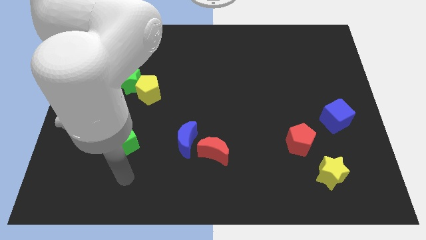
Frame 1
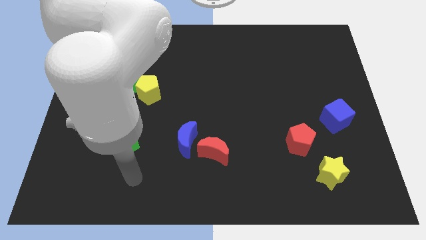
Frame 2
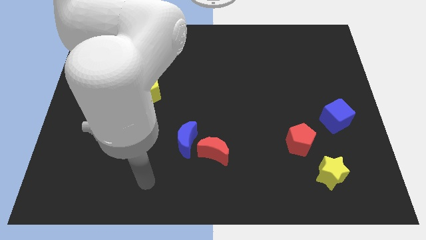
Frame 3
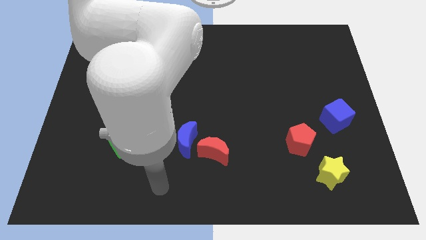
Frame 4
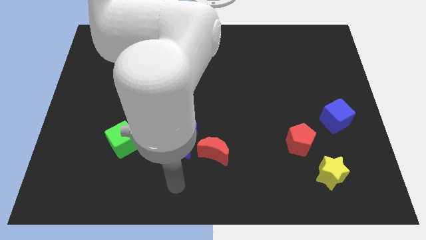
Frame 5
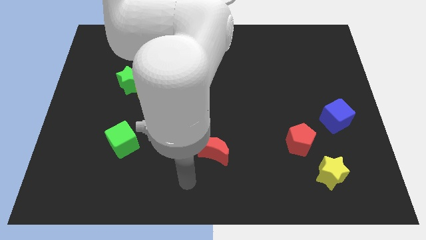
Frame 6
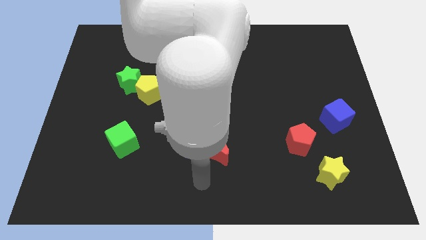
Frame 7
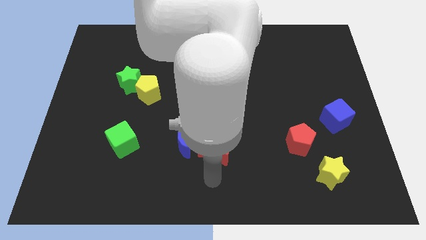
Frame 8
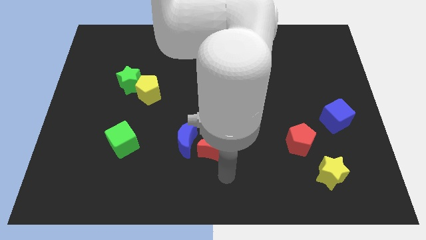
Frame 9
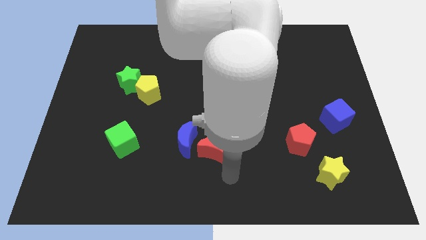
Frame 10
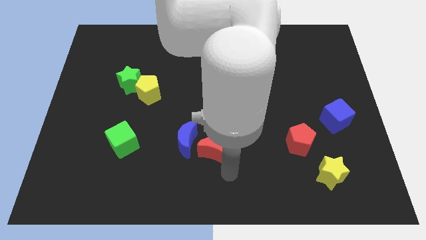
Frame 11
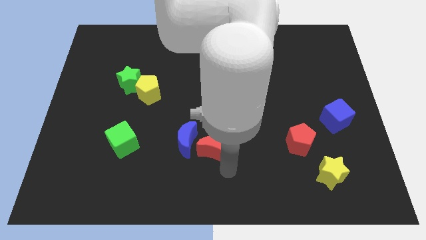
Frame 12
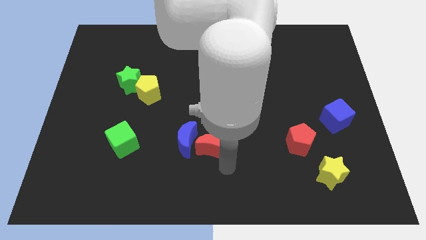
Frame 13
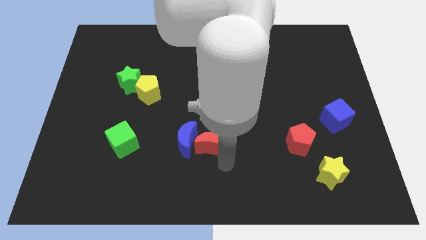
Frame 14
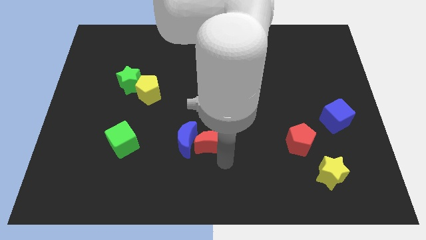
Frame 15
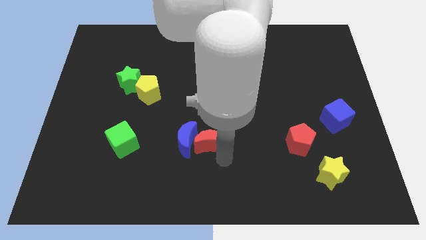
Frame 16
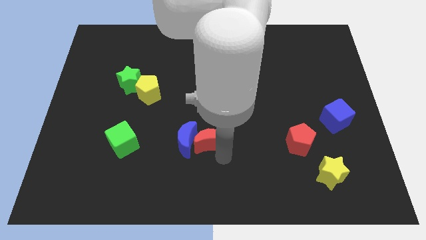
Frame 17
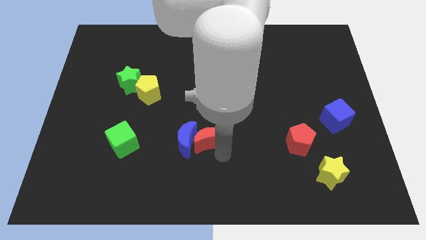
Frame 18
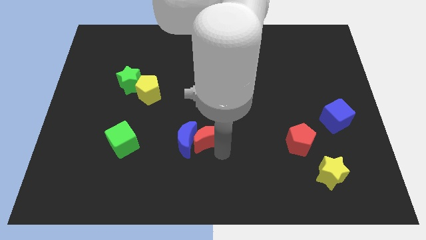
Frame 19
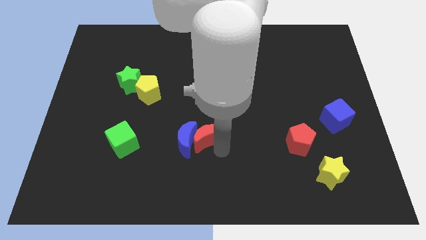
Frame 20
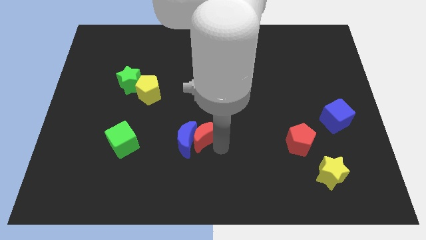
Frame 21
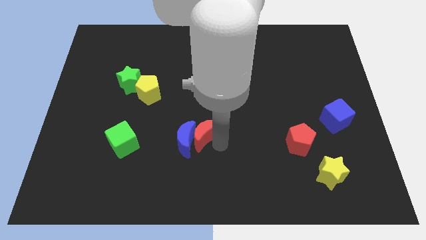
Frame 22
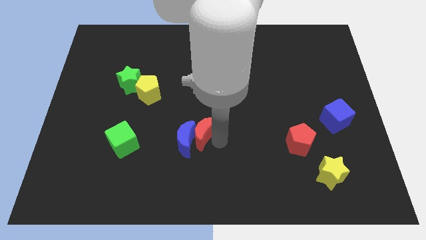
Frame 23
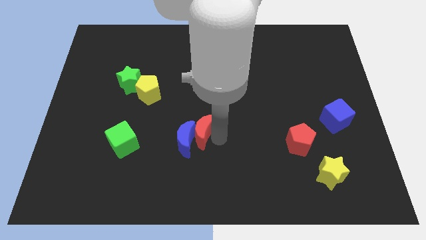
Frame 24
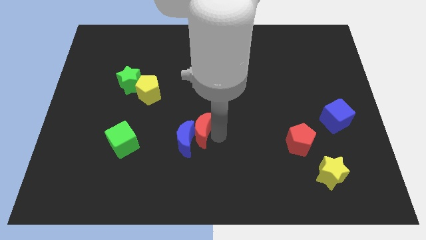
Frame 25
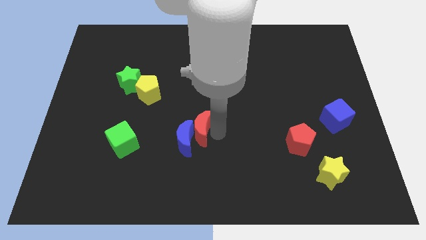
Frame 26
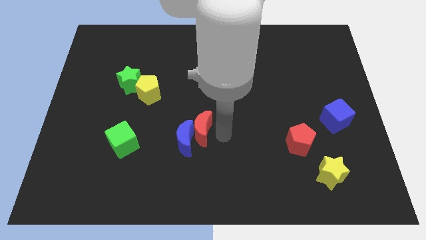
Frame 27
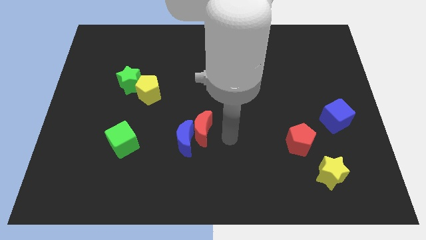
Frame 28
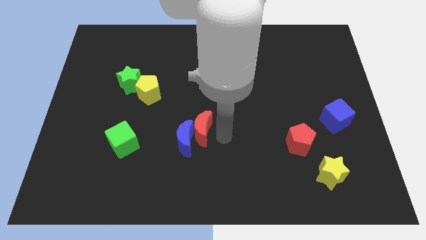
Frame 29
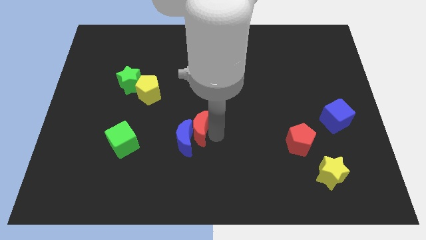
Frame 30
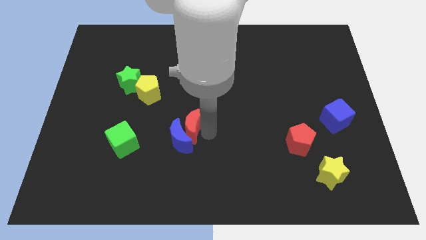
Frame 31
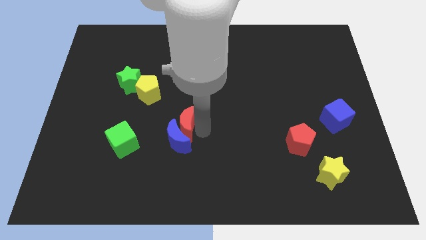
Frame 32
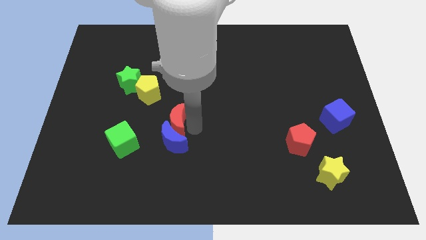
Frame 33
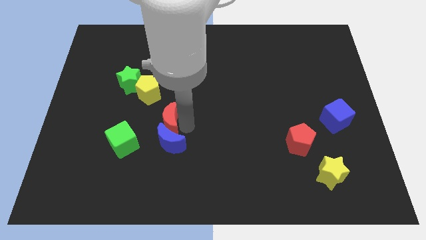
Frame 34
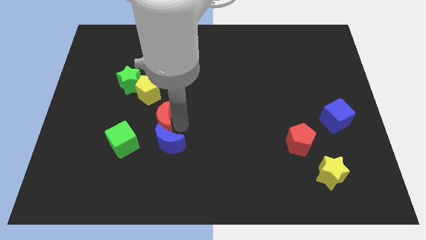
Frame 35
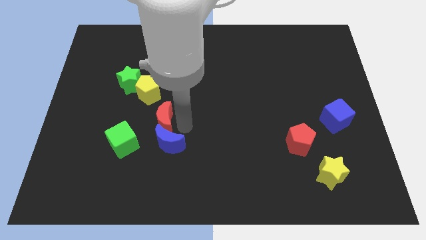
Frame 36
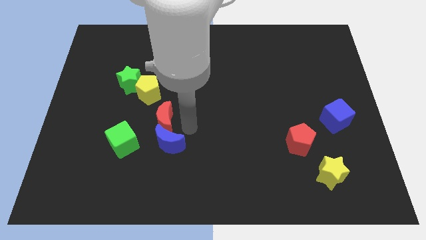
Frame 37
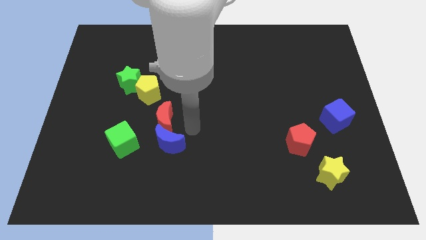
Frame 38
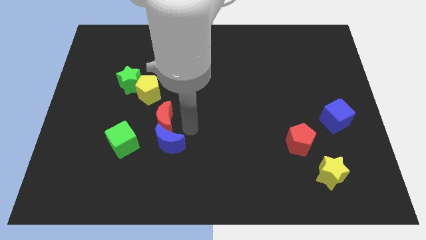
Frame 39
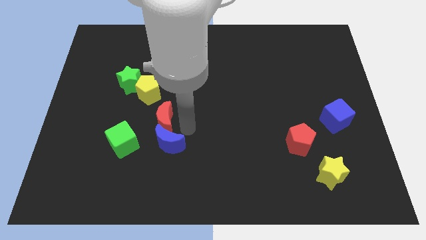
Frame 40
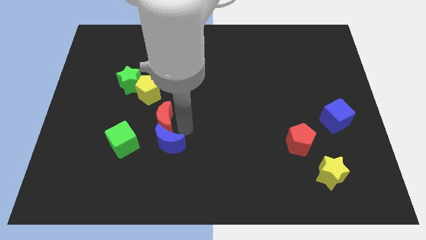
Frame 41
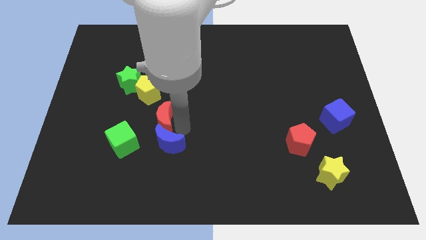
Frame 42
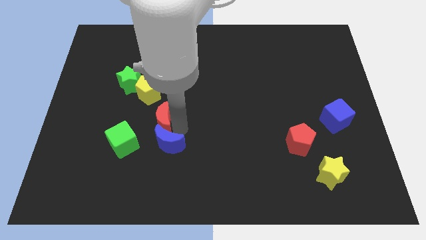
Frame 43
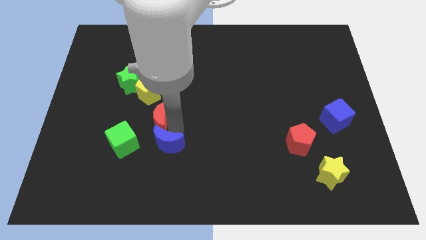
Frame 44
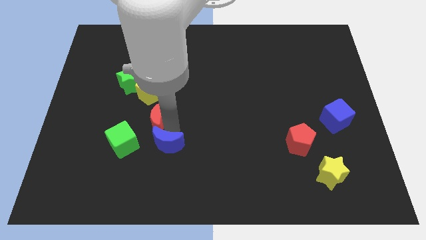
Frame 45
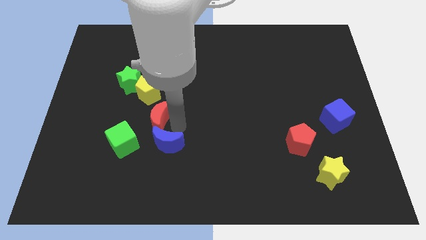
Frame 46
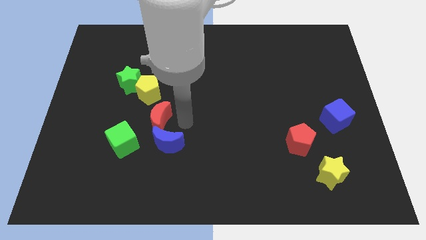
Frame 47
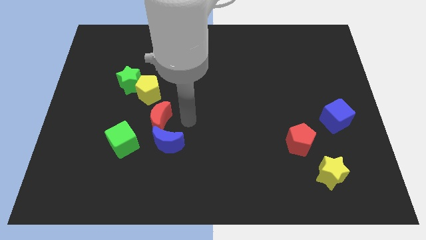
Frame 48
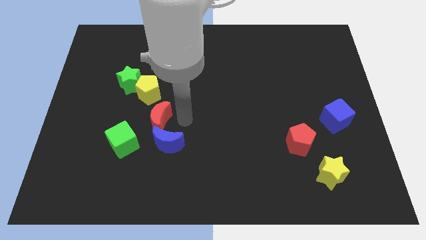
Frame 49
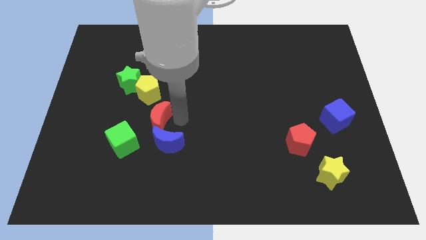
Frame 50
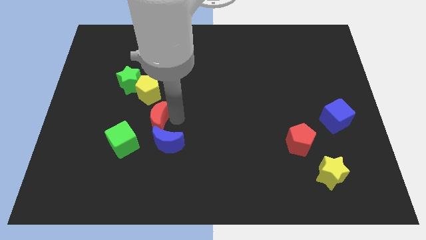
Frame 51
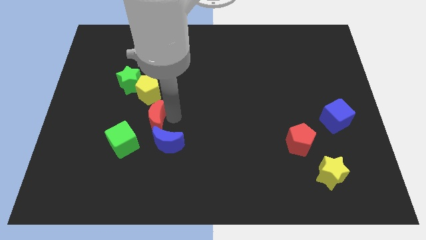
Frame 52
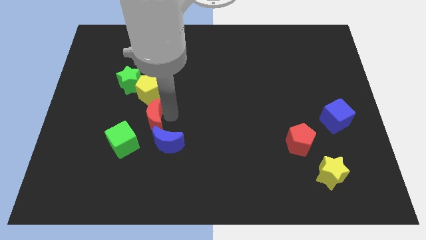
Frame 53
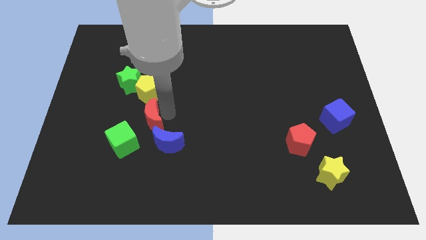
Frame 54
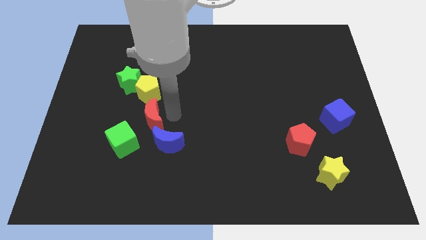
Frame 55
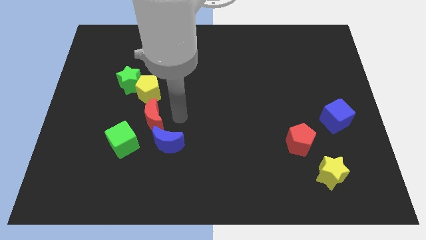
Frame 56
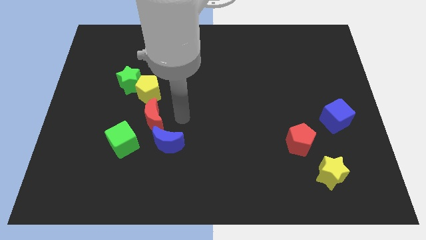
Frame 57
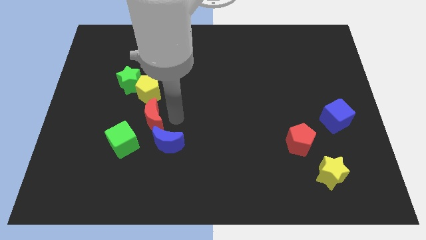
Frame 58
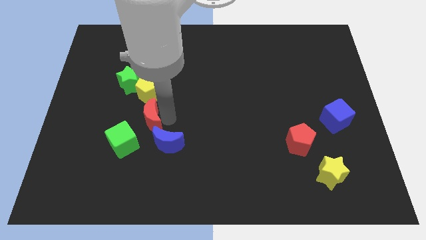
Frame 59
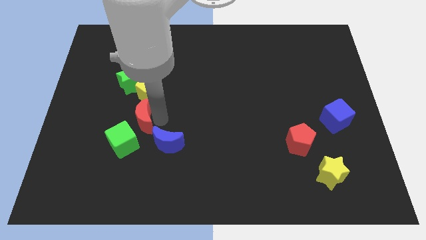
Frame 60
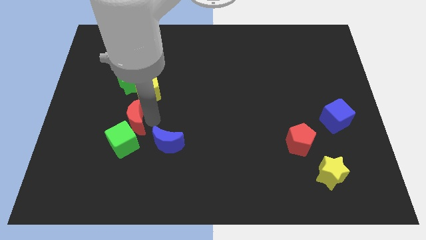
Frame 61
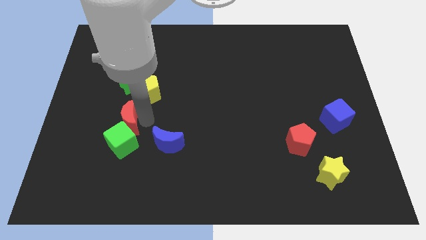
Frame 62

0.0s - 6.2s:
push the red moon to the top left of the green cube
